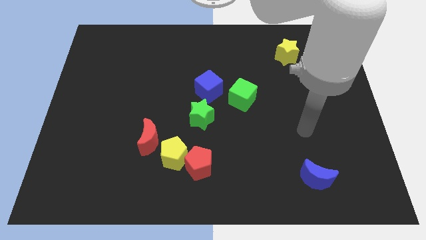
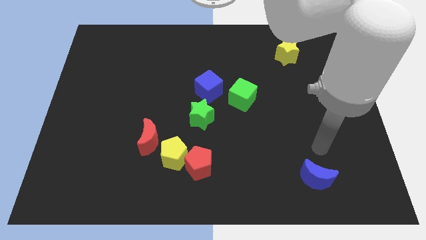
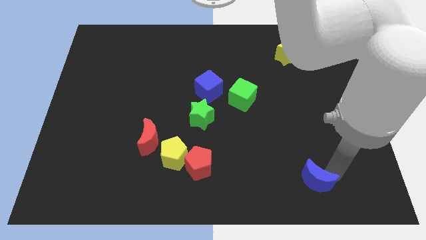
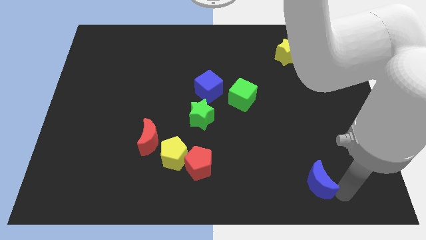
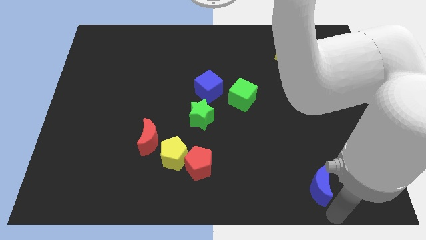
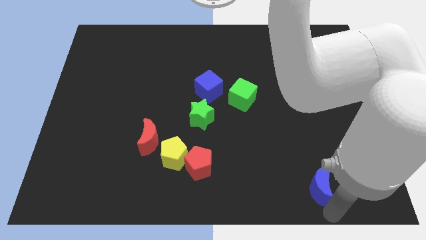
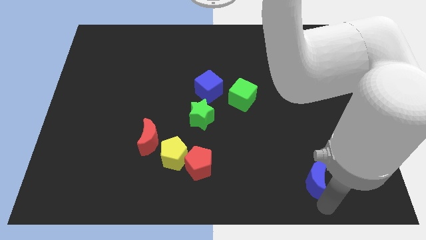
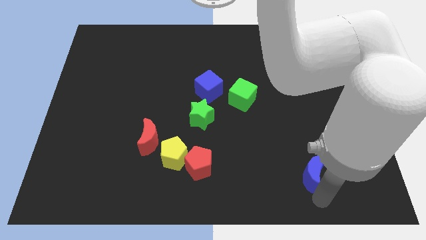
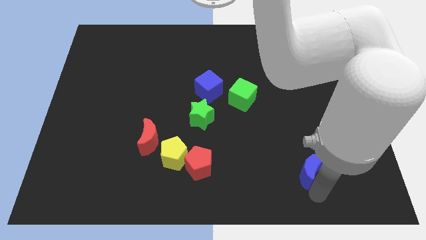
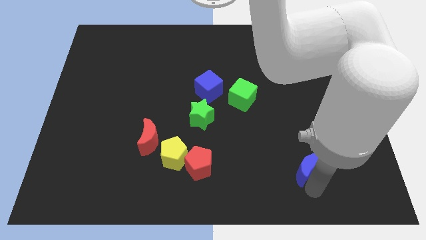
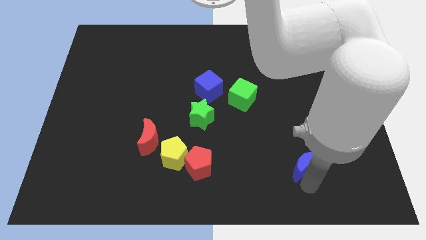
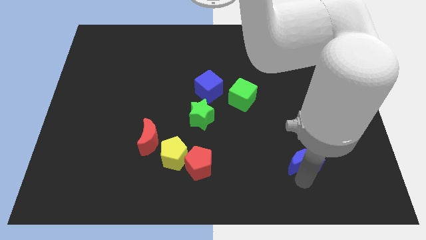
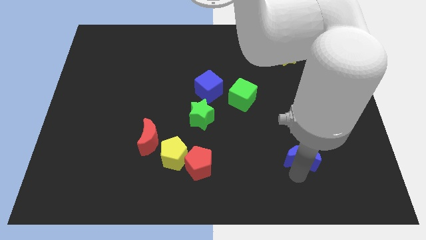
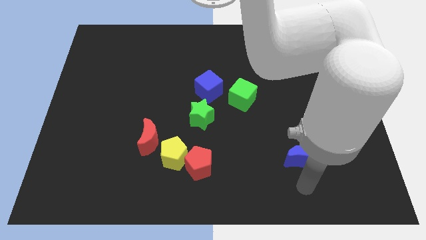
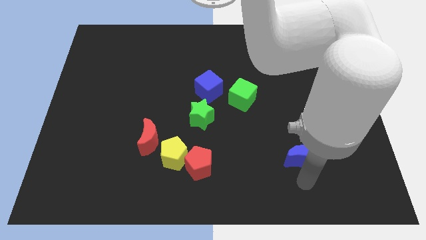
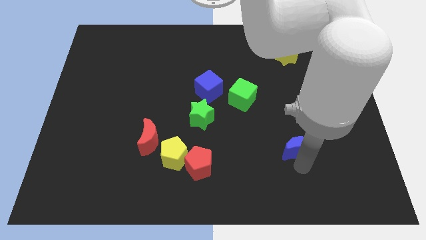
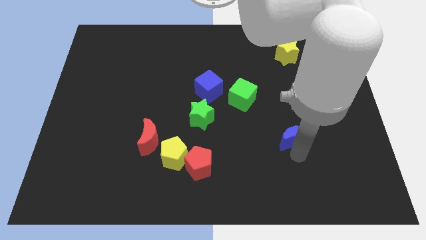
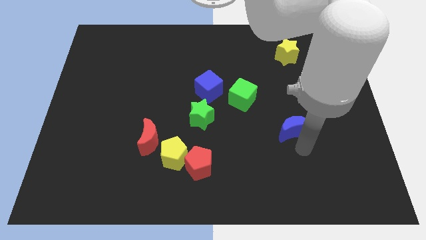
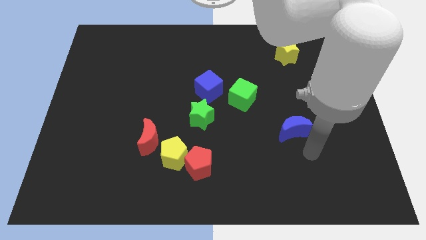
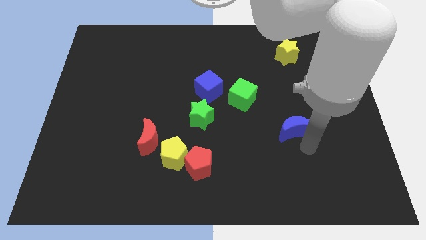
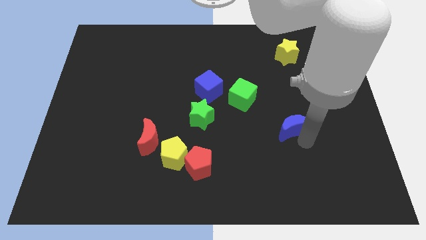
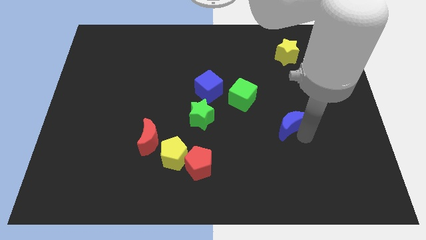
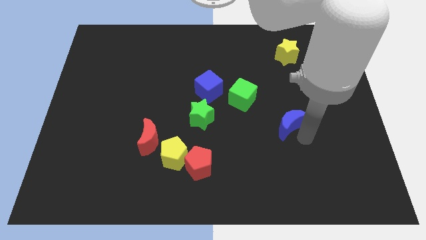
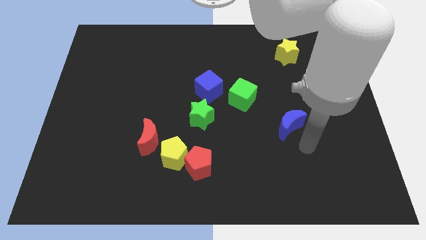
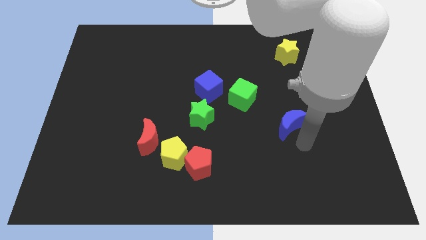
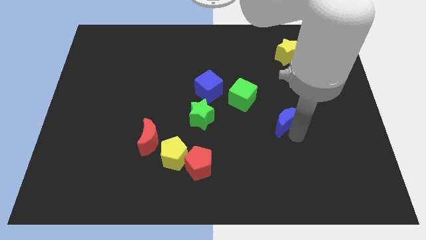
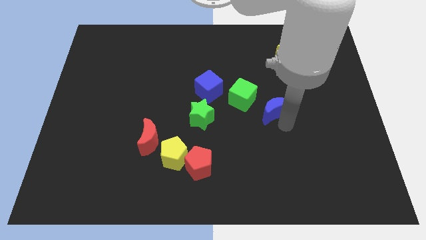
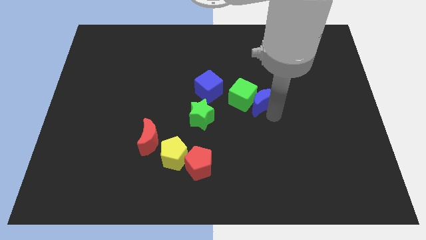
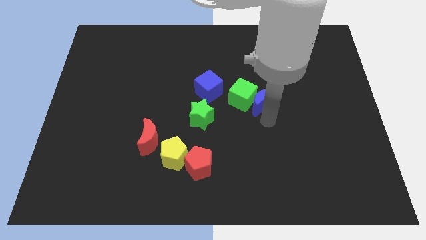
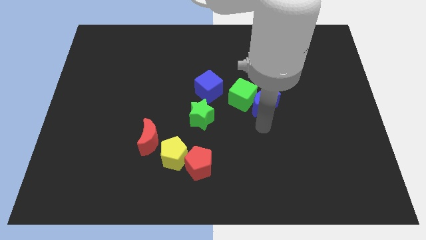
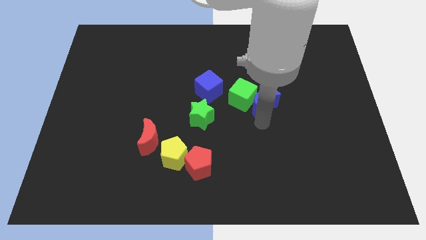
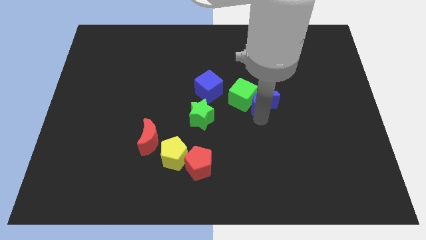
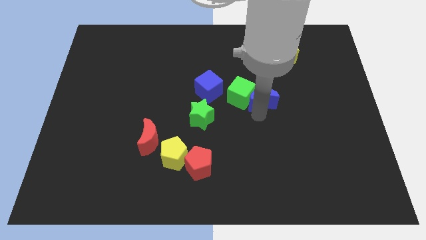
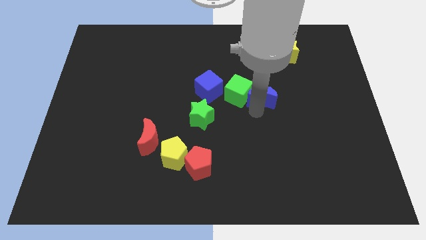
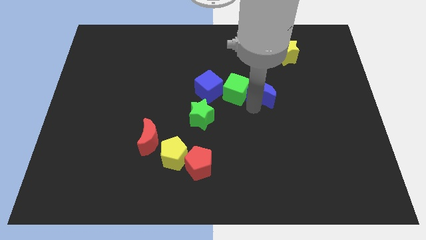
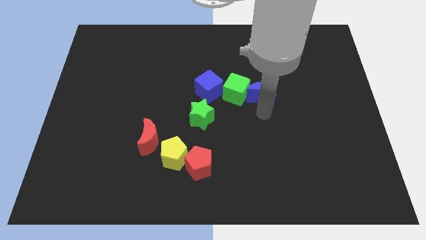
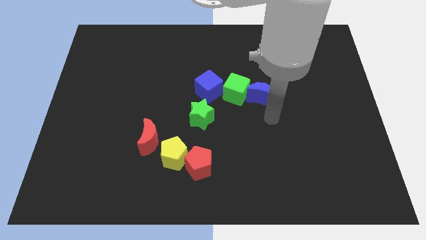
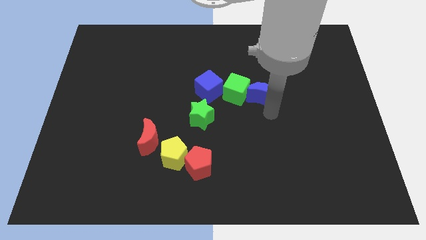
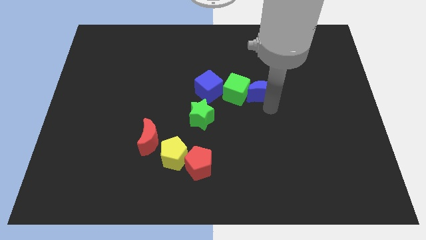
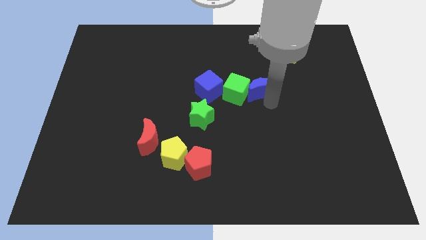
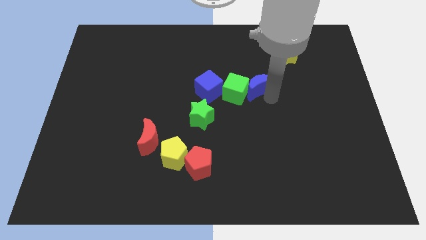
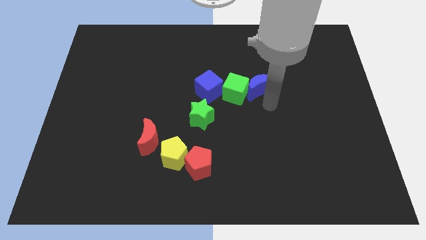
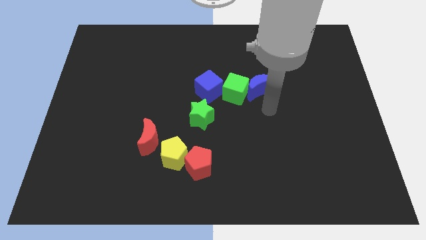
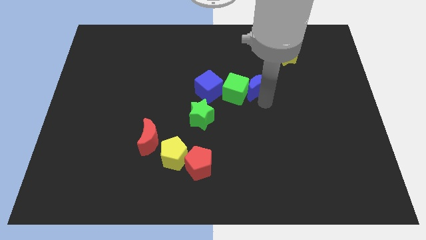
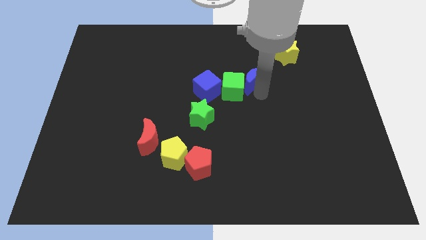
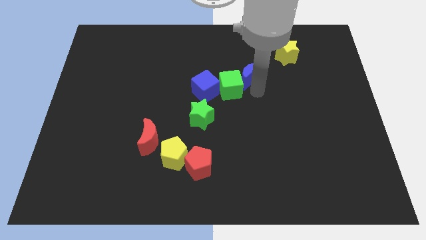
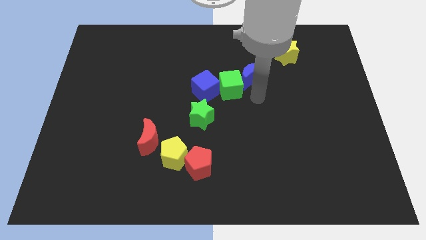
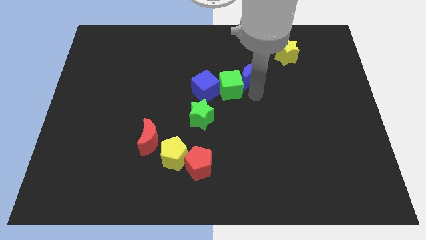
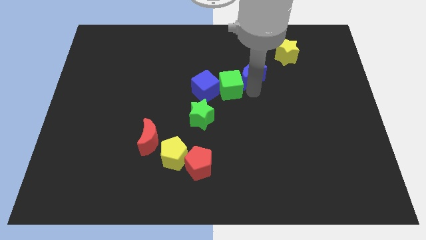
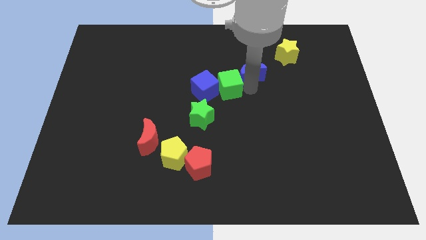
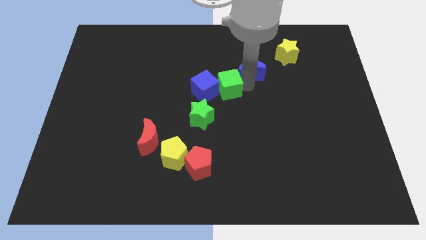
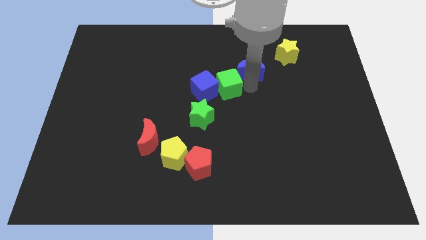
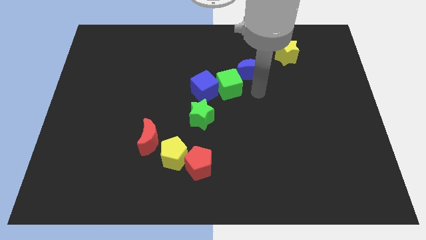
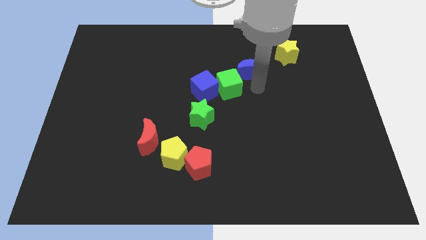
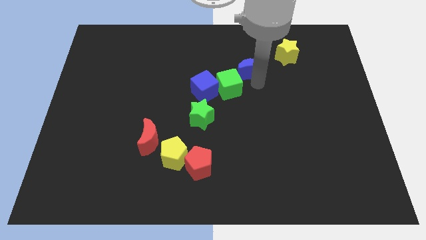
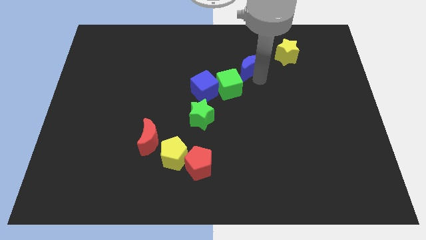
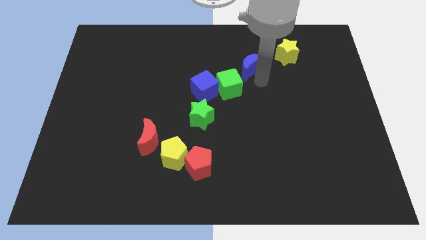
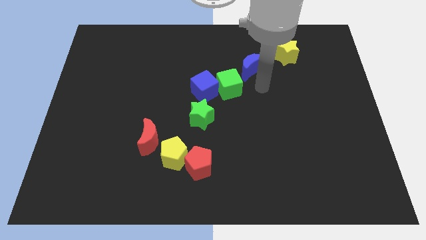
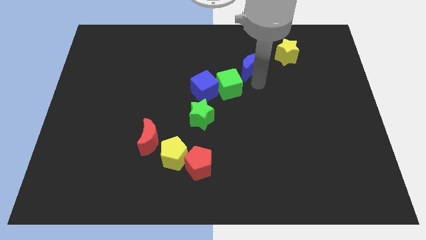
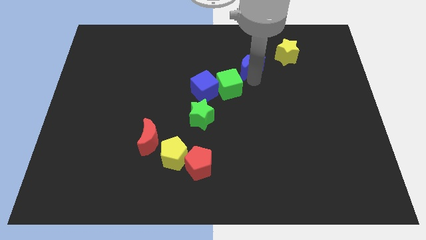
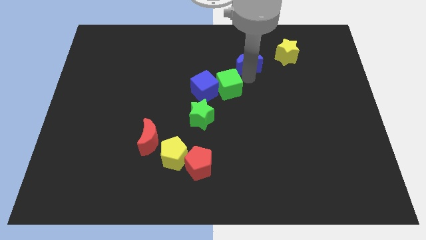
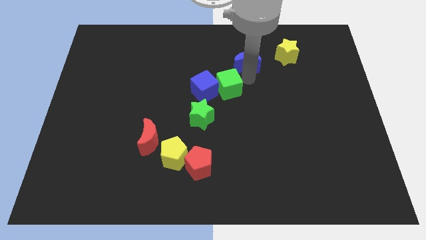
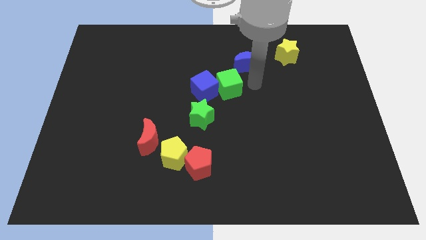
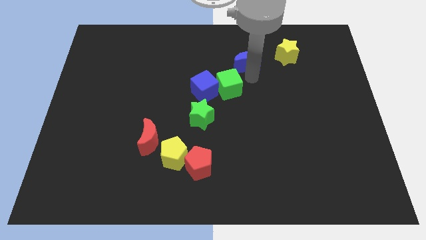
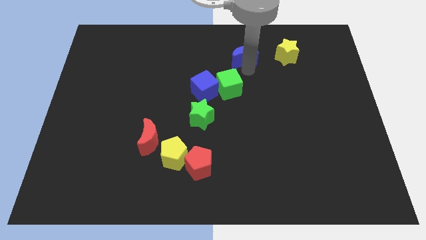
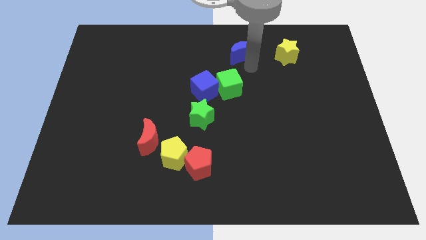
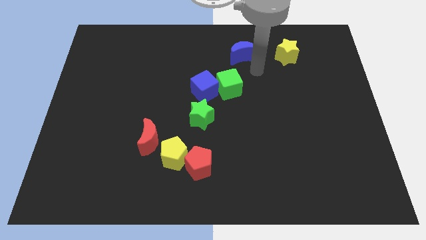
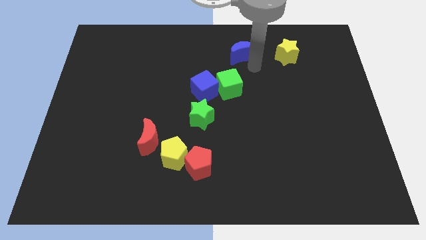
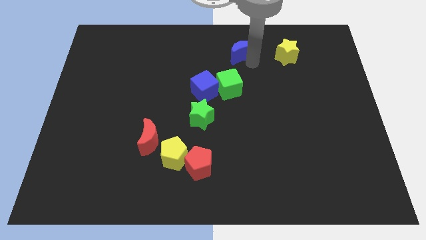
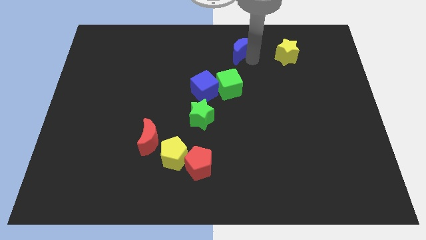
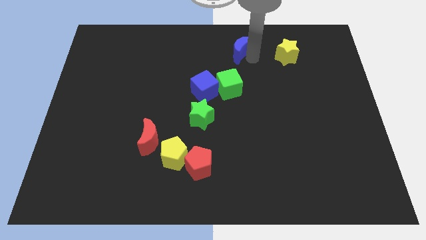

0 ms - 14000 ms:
move the blue moon to the top side

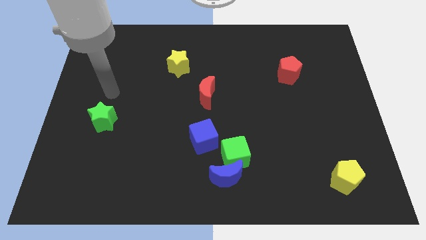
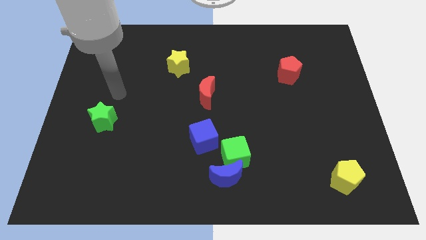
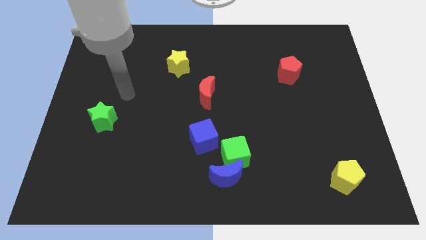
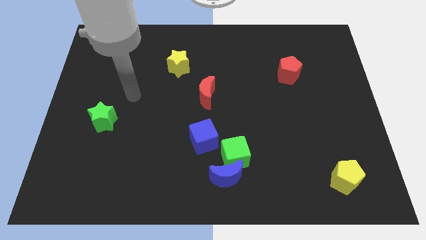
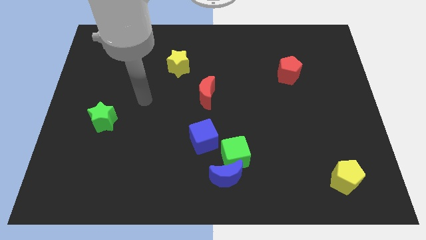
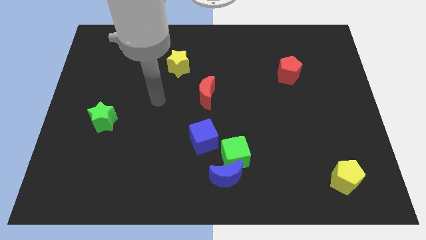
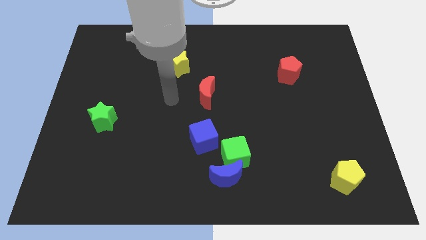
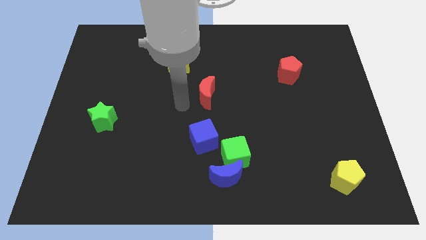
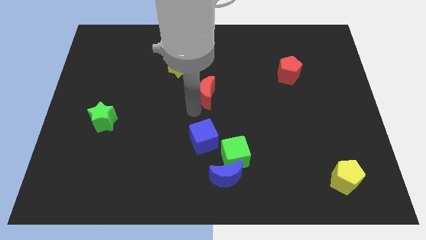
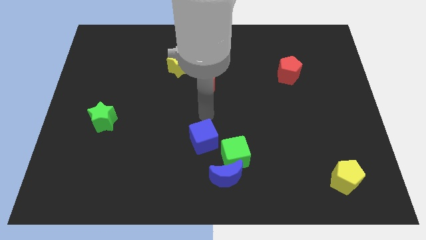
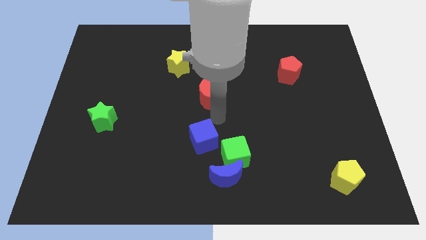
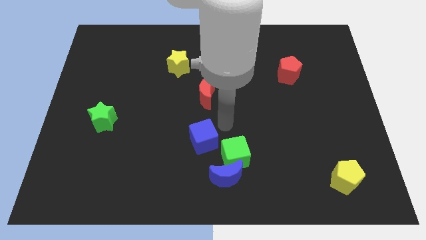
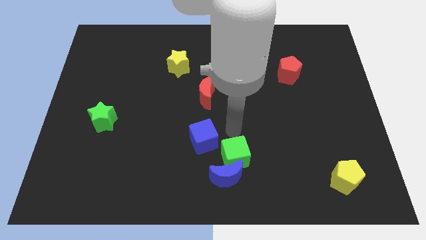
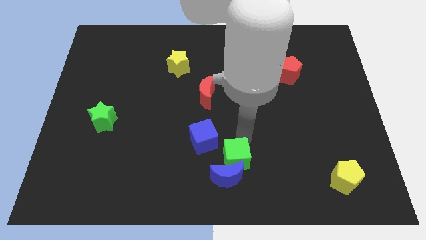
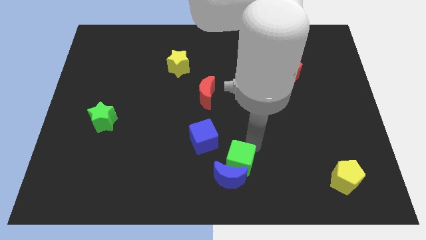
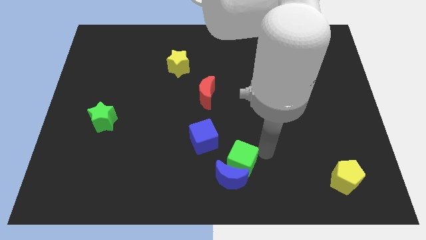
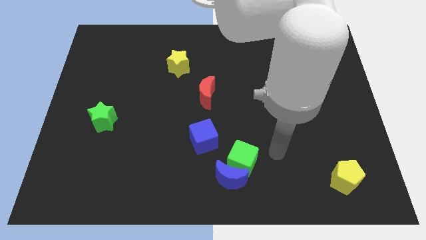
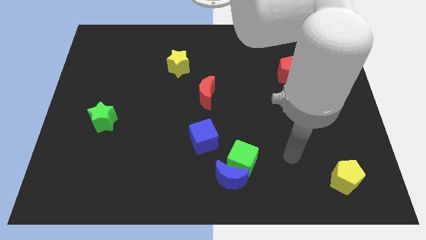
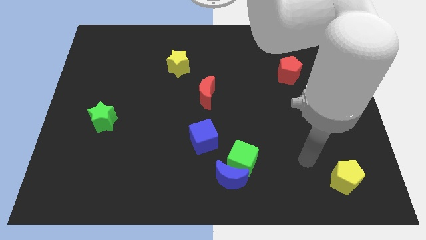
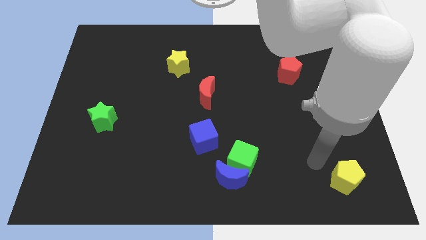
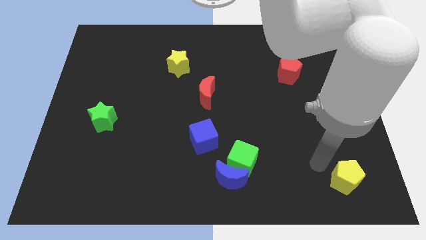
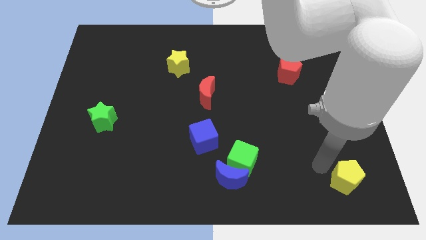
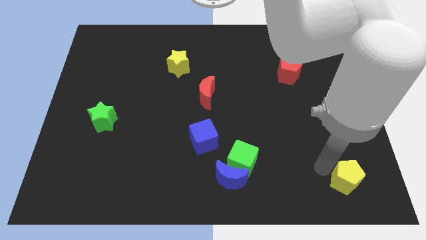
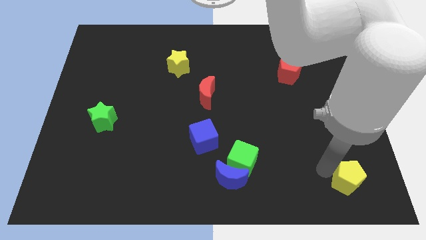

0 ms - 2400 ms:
push the yellow pentagon to the bottom right of the board
